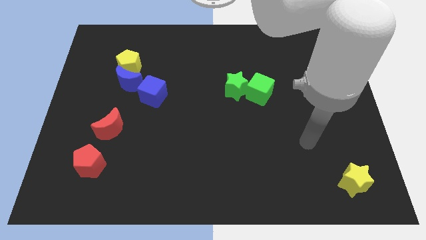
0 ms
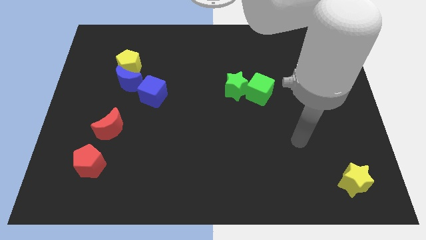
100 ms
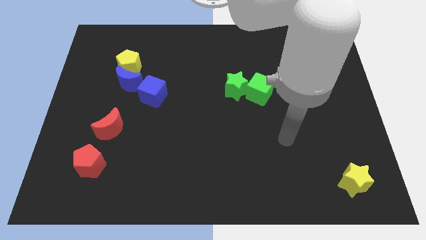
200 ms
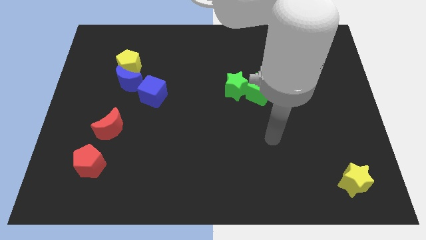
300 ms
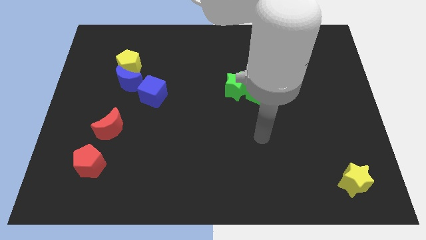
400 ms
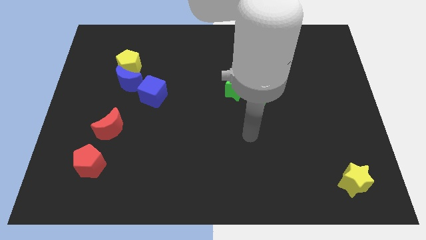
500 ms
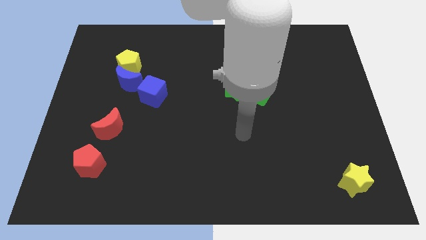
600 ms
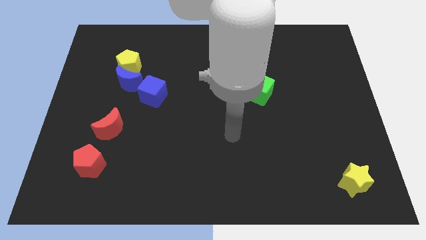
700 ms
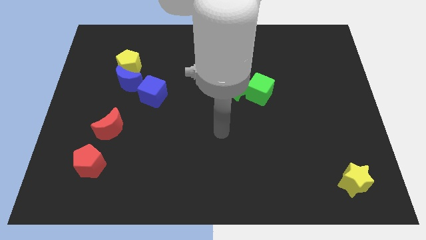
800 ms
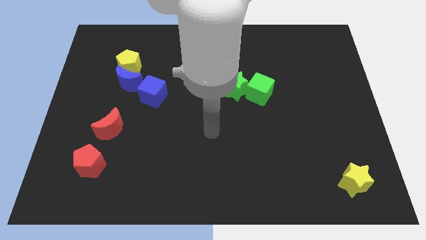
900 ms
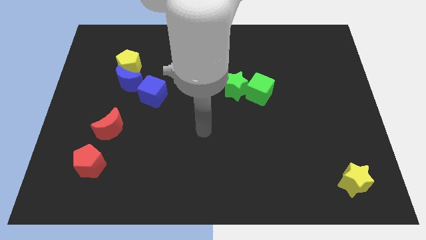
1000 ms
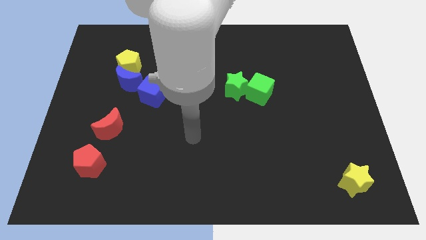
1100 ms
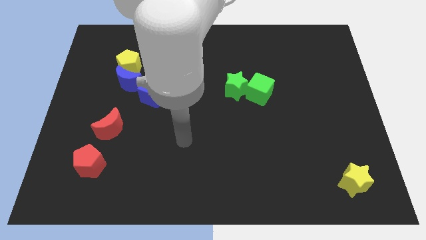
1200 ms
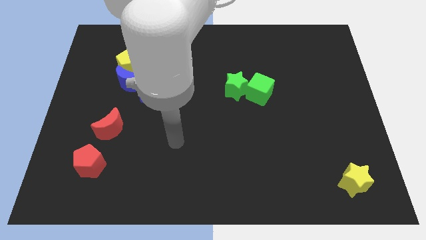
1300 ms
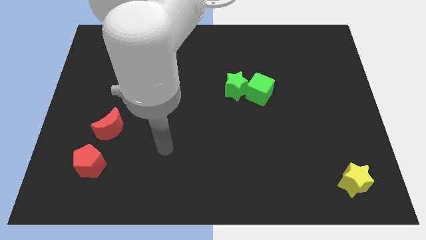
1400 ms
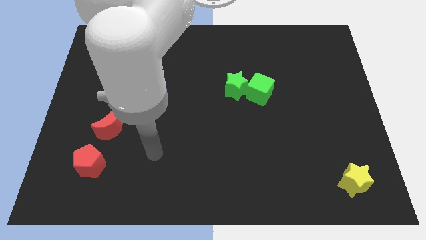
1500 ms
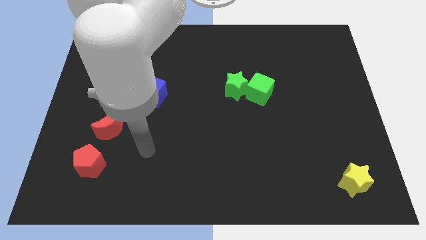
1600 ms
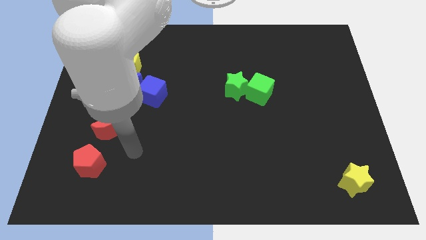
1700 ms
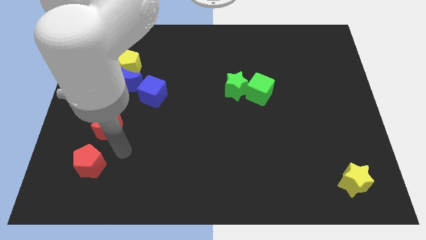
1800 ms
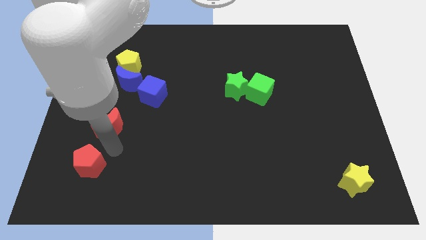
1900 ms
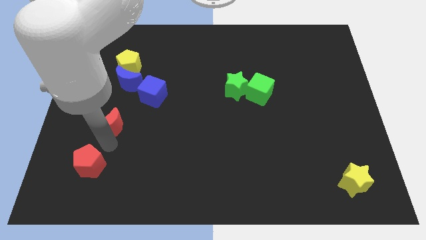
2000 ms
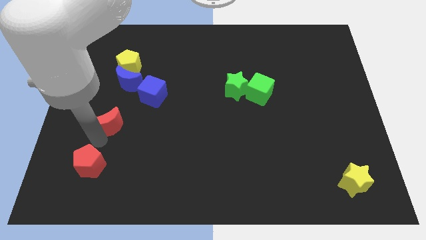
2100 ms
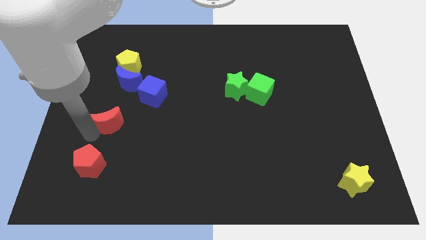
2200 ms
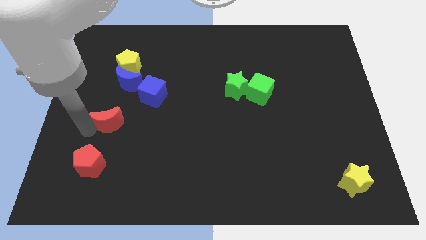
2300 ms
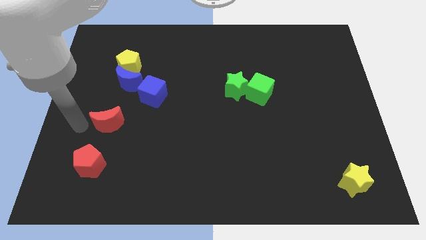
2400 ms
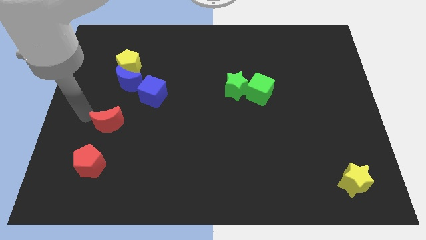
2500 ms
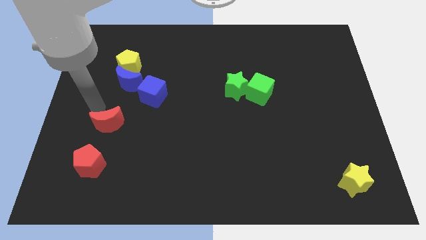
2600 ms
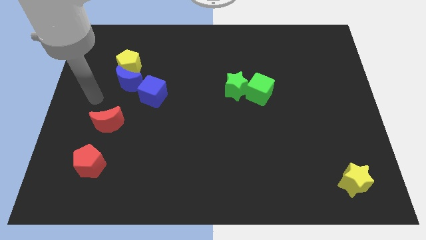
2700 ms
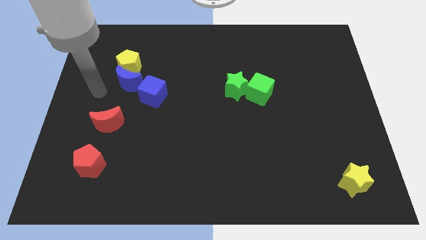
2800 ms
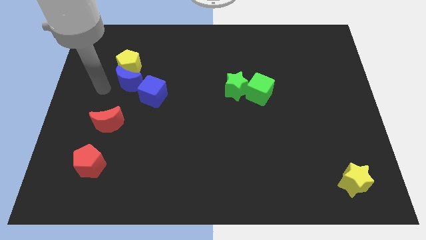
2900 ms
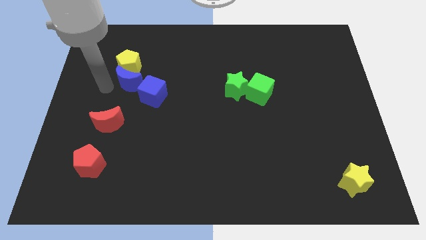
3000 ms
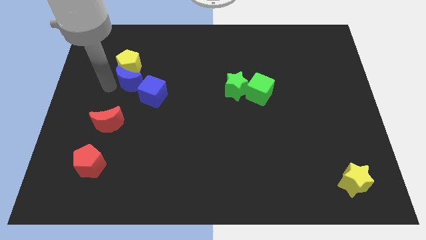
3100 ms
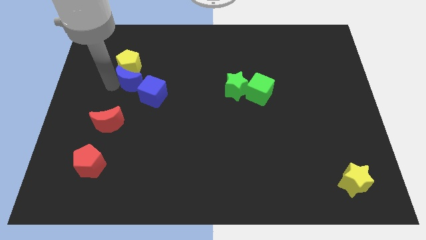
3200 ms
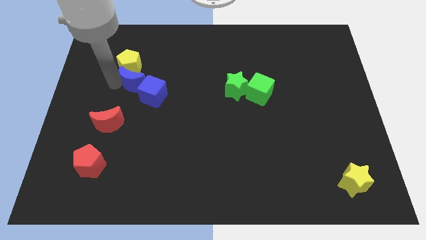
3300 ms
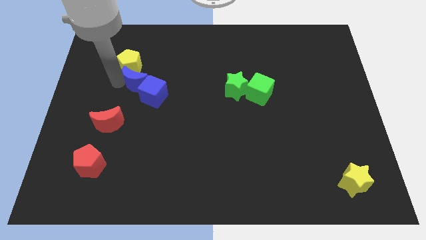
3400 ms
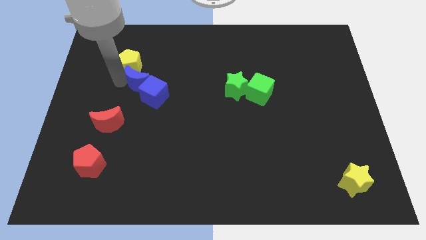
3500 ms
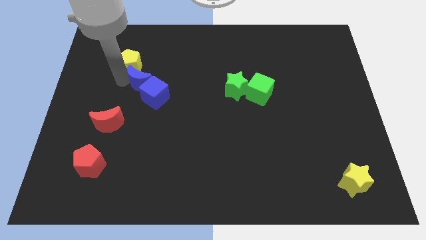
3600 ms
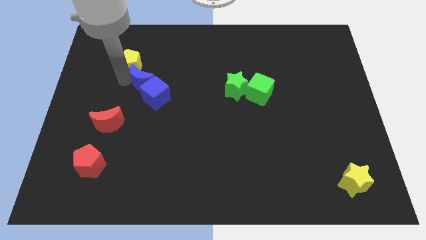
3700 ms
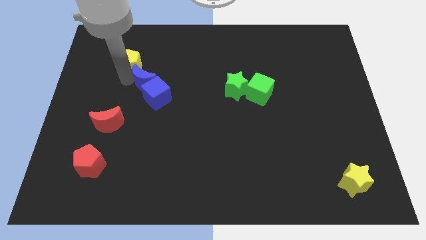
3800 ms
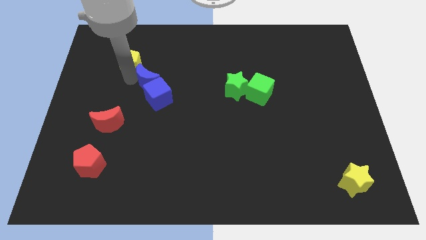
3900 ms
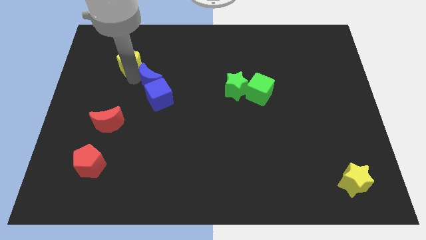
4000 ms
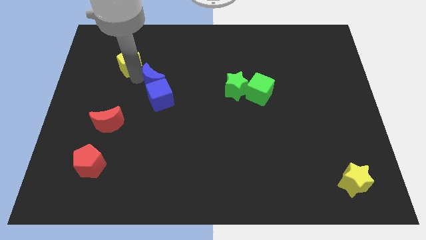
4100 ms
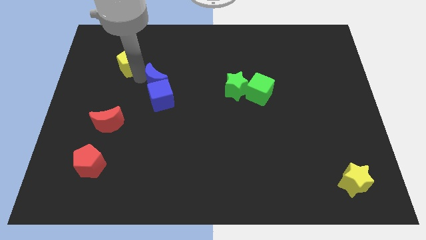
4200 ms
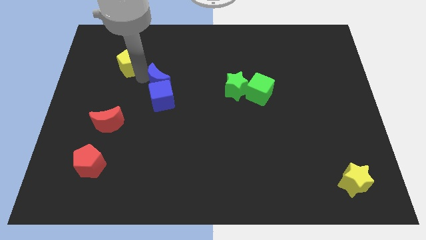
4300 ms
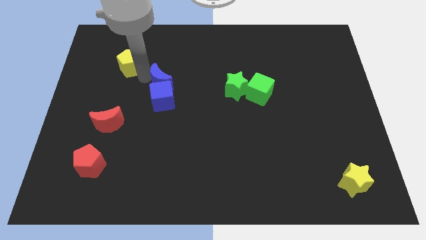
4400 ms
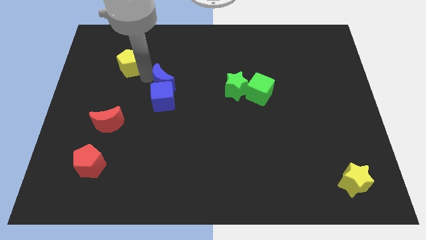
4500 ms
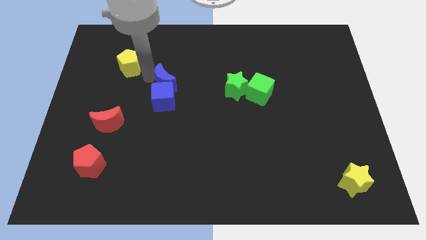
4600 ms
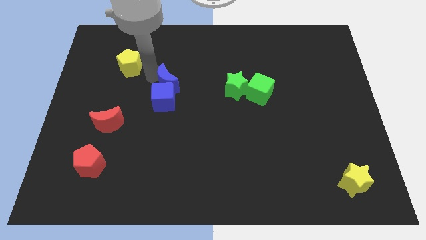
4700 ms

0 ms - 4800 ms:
move the blue moon to the center

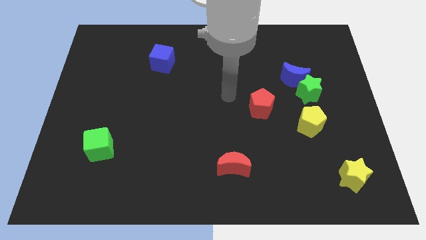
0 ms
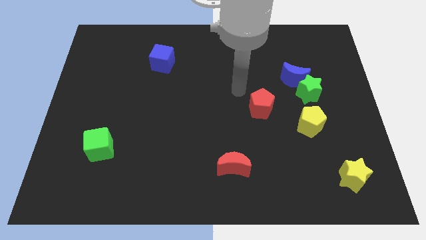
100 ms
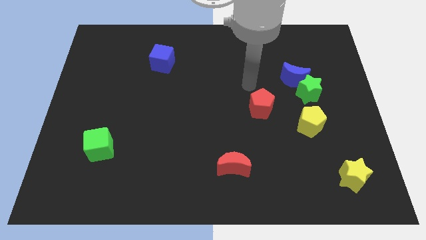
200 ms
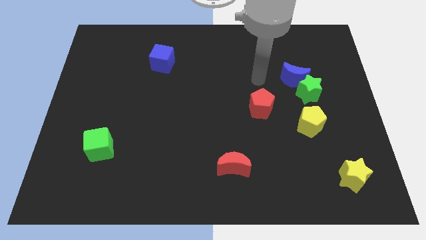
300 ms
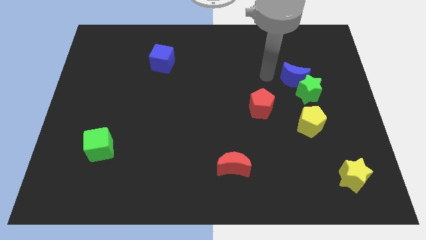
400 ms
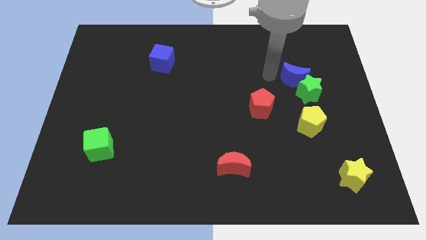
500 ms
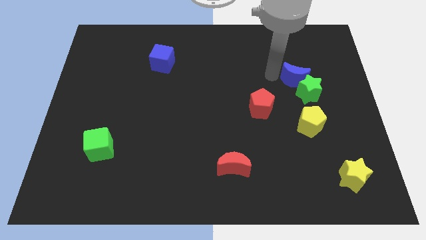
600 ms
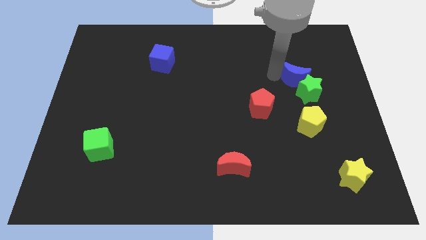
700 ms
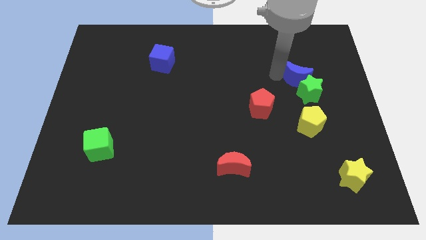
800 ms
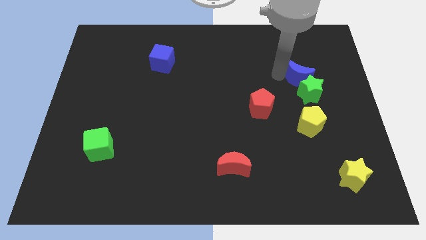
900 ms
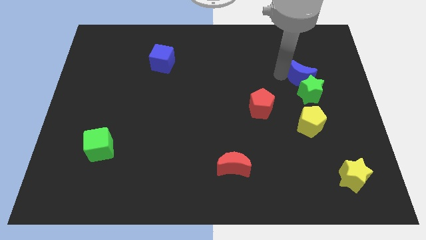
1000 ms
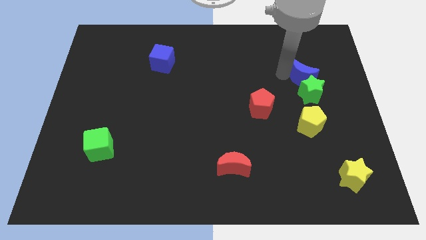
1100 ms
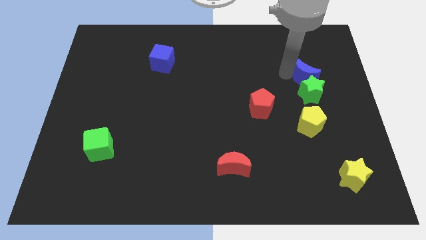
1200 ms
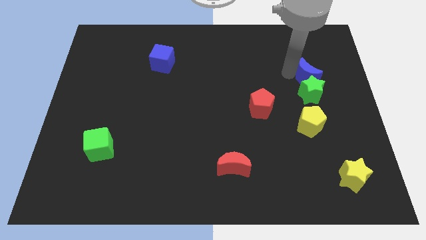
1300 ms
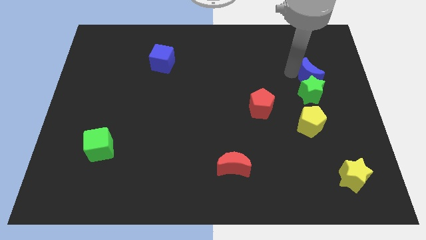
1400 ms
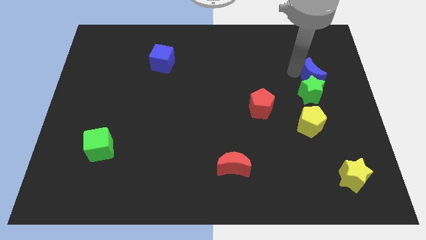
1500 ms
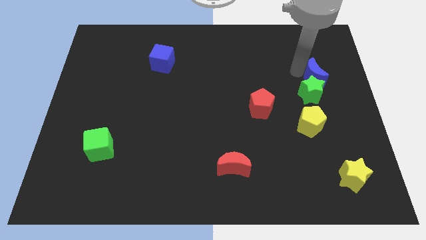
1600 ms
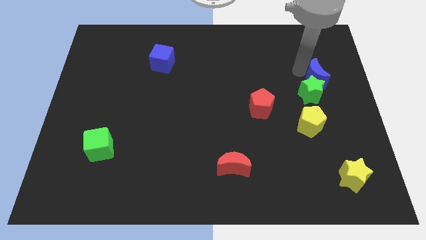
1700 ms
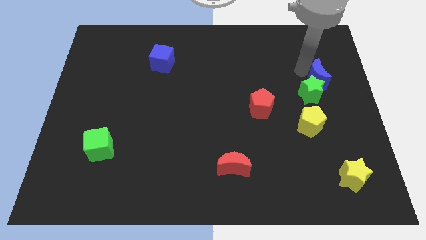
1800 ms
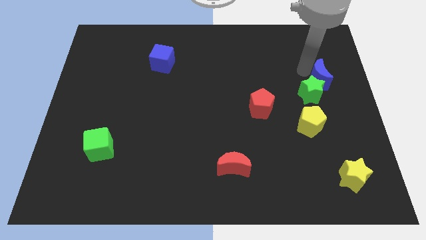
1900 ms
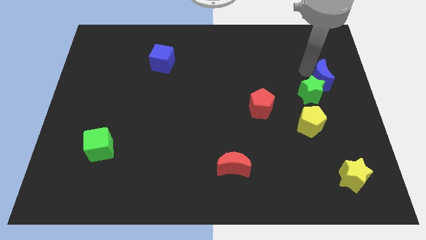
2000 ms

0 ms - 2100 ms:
move the blue moon to the right side

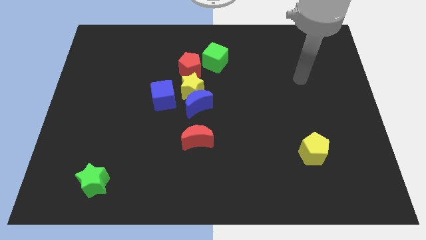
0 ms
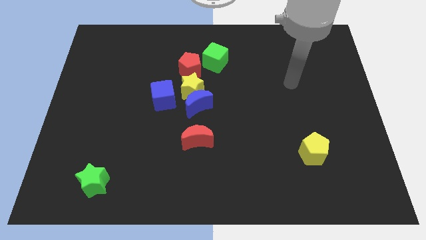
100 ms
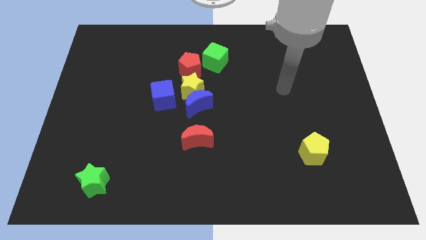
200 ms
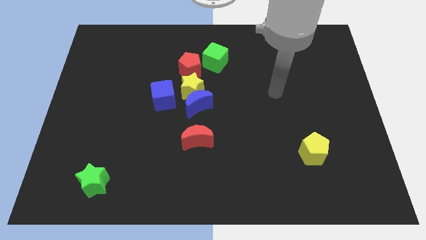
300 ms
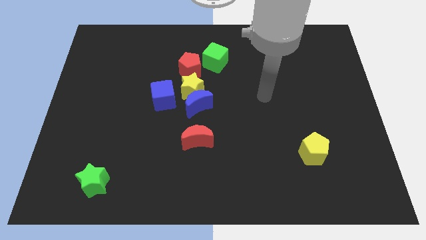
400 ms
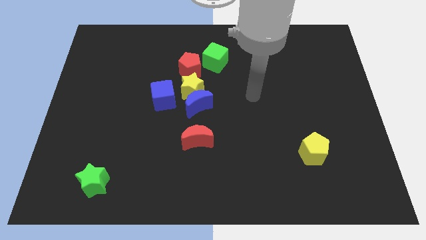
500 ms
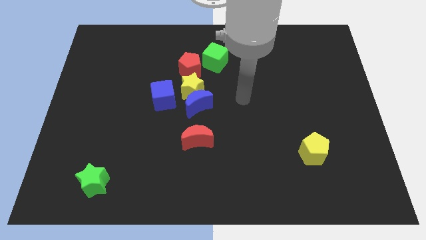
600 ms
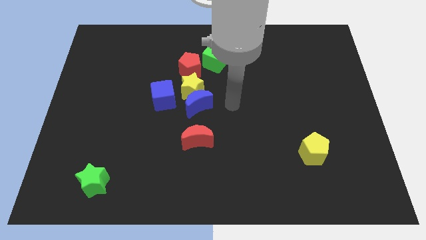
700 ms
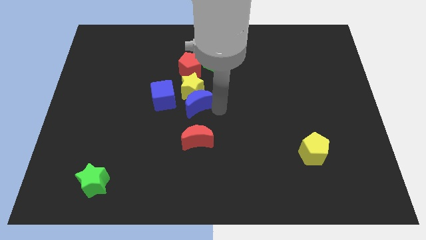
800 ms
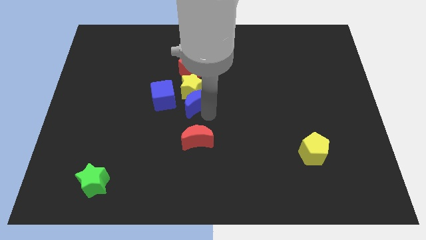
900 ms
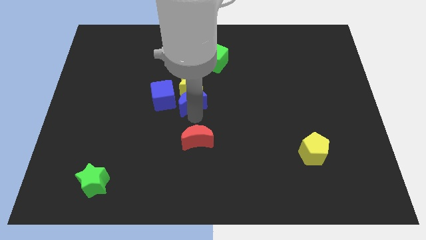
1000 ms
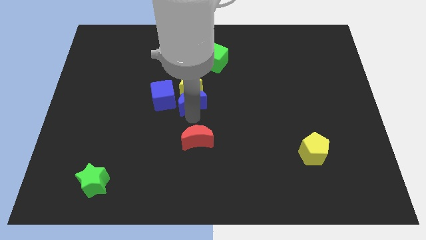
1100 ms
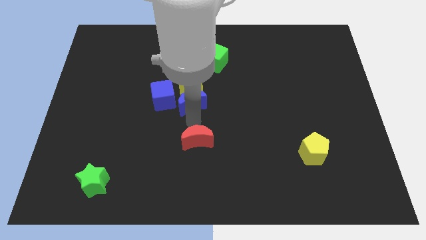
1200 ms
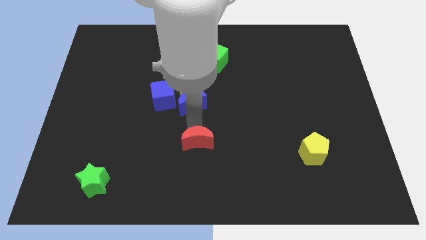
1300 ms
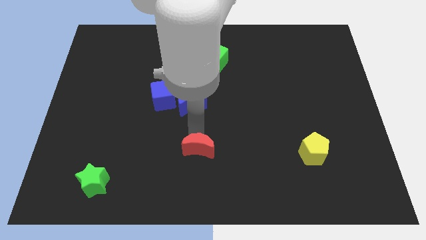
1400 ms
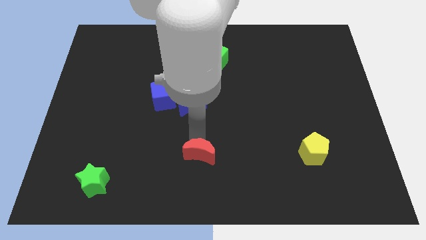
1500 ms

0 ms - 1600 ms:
move the red moon to the bottom
